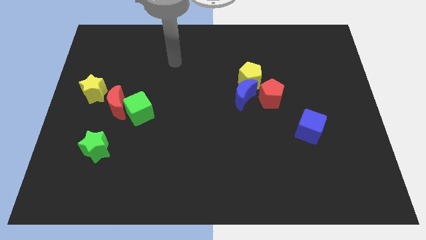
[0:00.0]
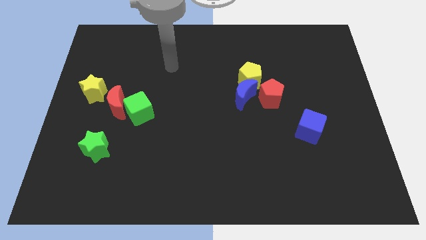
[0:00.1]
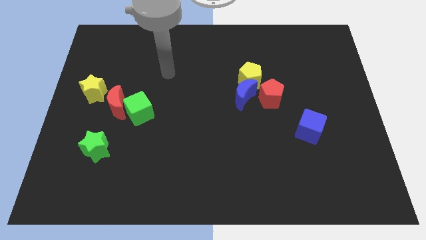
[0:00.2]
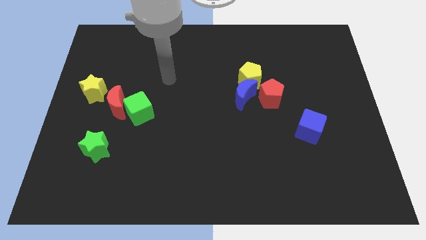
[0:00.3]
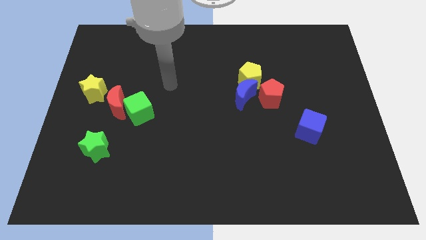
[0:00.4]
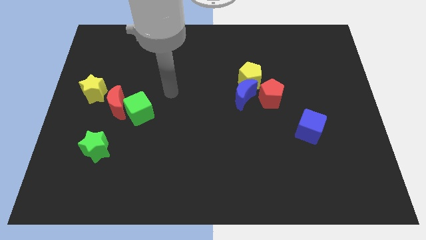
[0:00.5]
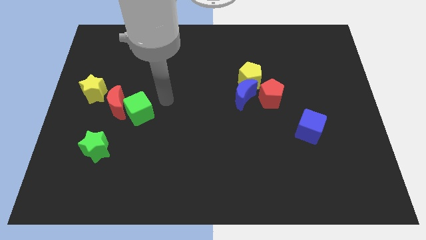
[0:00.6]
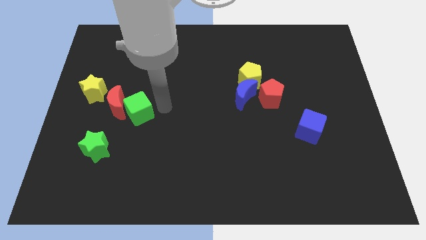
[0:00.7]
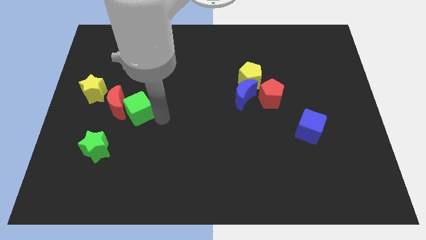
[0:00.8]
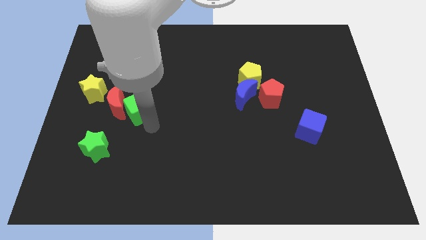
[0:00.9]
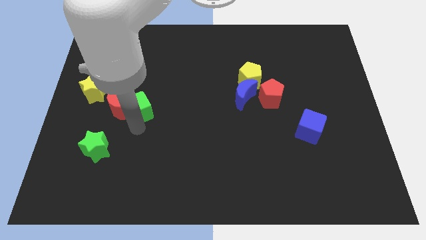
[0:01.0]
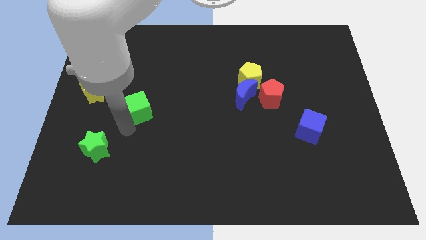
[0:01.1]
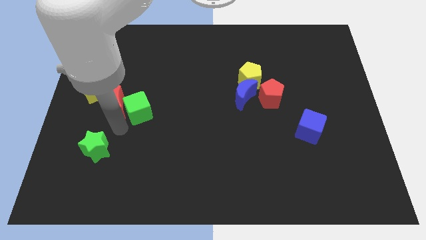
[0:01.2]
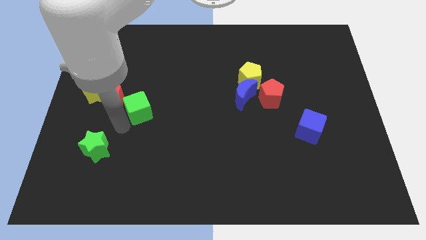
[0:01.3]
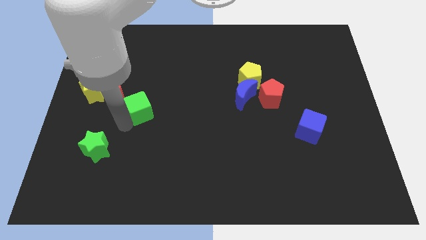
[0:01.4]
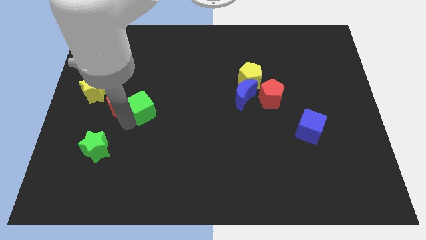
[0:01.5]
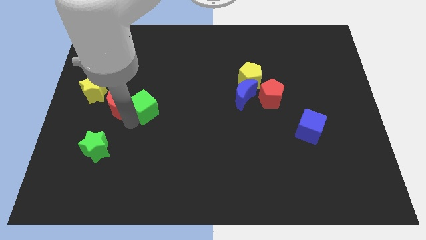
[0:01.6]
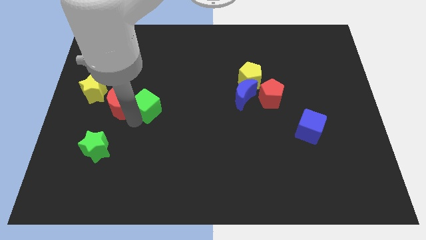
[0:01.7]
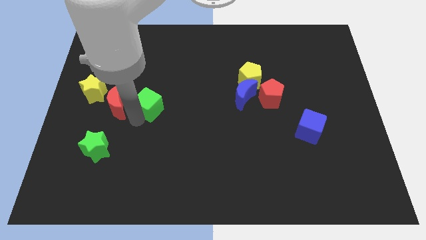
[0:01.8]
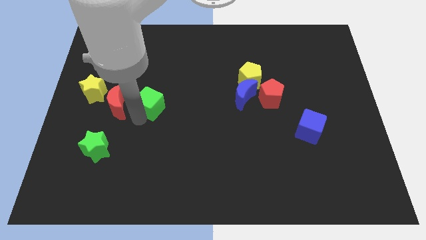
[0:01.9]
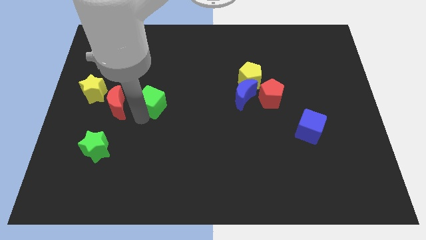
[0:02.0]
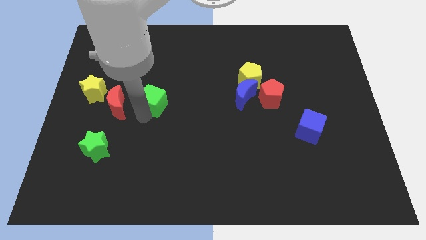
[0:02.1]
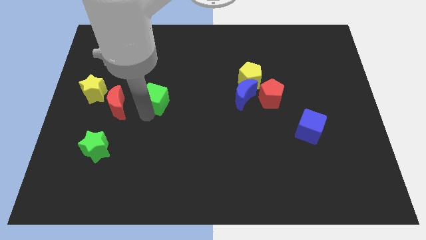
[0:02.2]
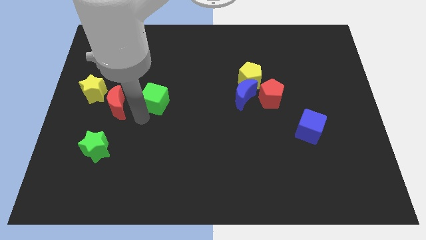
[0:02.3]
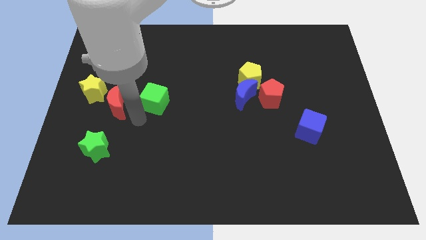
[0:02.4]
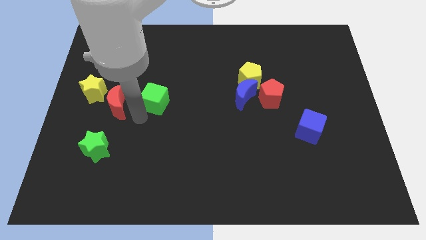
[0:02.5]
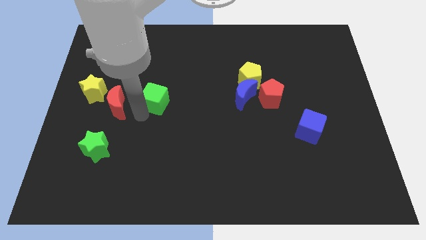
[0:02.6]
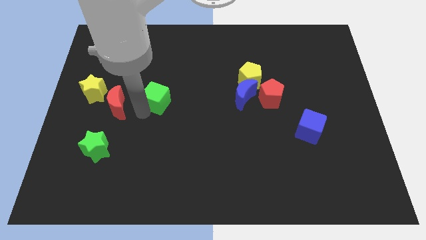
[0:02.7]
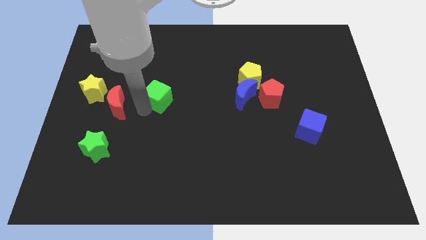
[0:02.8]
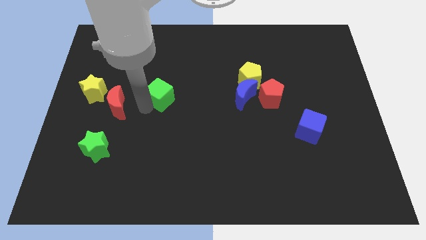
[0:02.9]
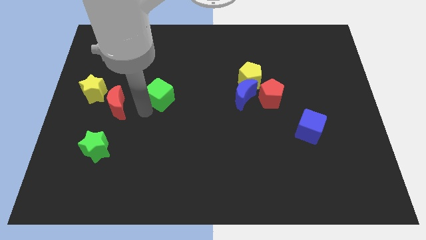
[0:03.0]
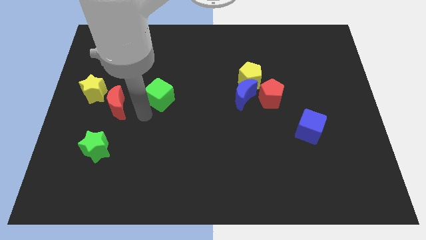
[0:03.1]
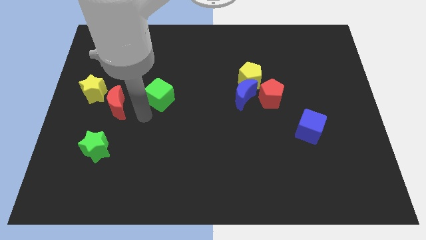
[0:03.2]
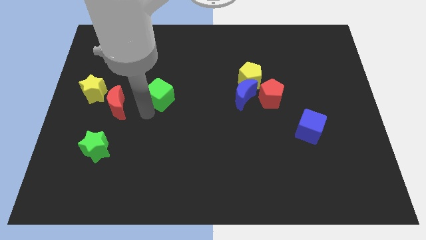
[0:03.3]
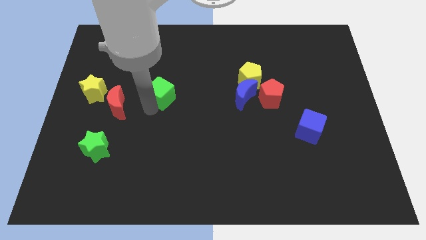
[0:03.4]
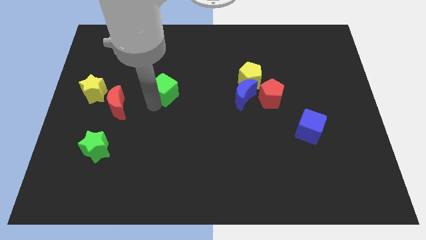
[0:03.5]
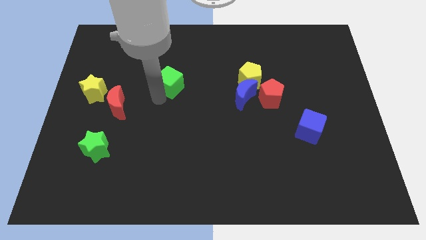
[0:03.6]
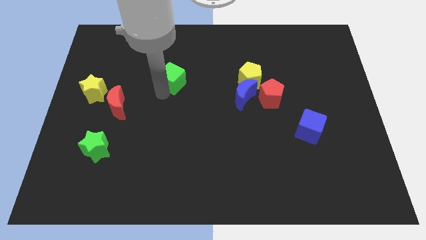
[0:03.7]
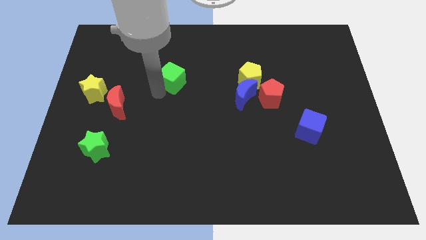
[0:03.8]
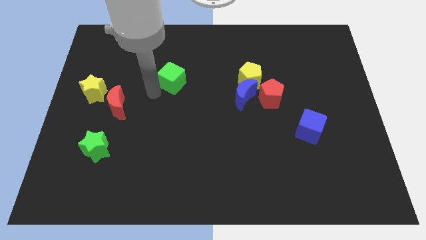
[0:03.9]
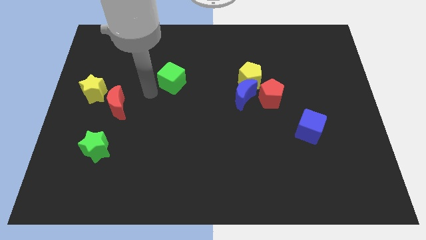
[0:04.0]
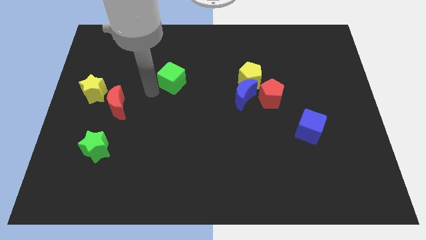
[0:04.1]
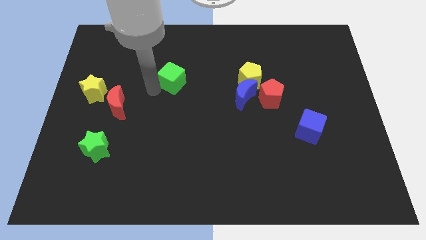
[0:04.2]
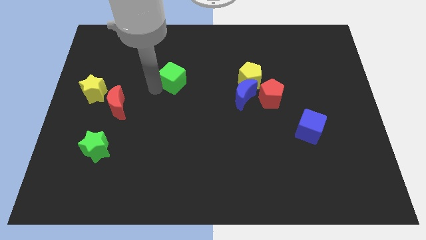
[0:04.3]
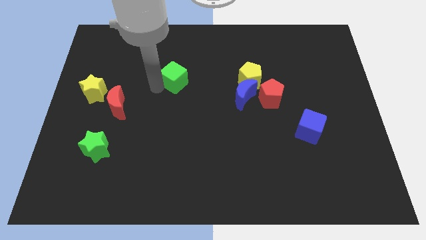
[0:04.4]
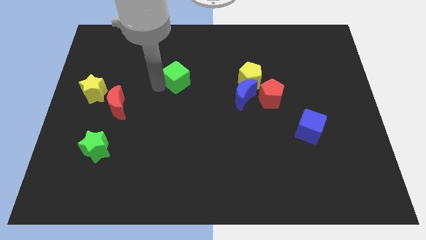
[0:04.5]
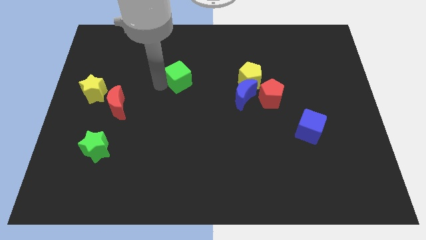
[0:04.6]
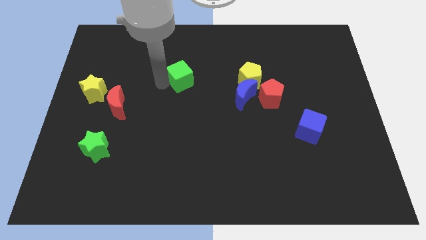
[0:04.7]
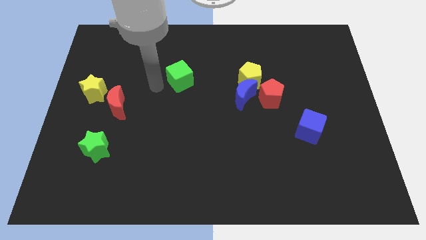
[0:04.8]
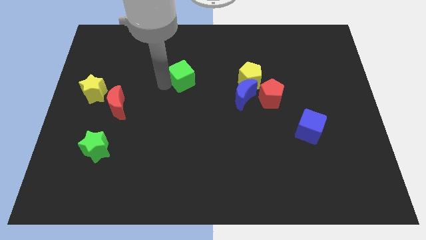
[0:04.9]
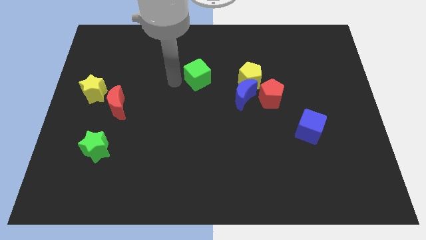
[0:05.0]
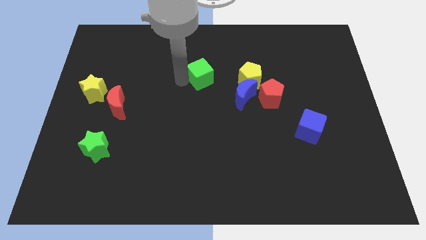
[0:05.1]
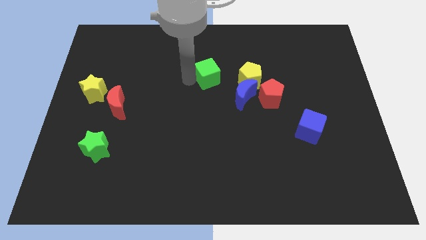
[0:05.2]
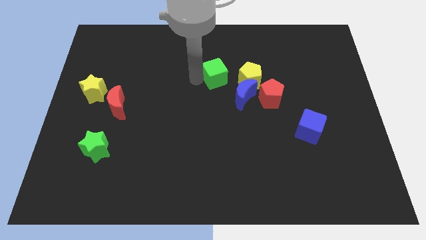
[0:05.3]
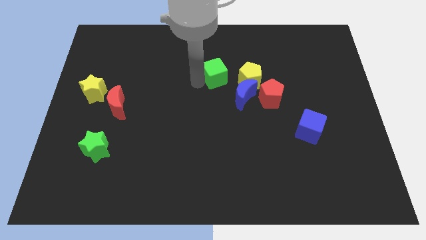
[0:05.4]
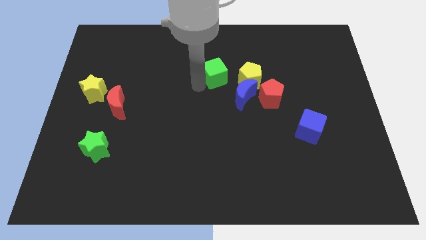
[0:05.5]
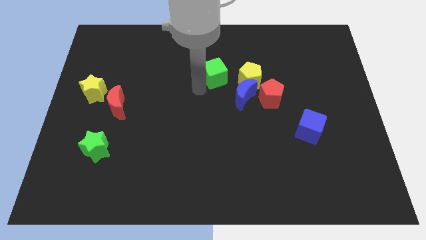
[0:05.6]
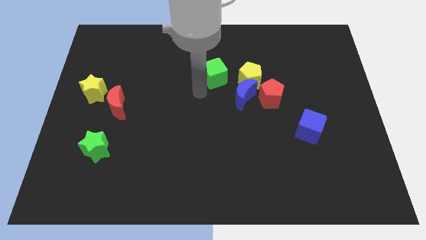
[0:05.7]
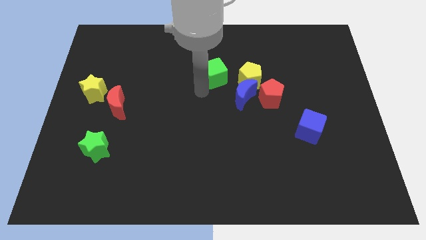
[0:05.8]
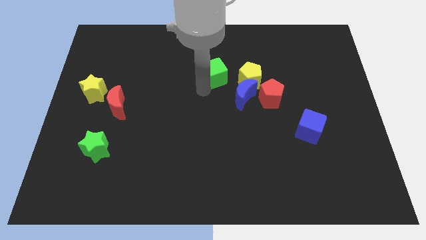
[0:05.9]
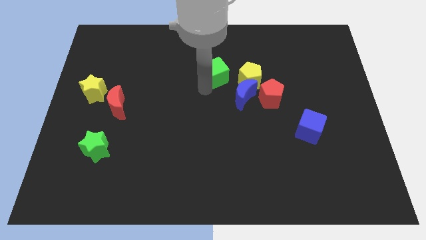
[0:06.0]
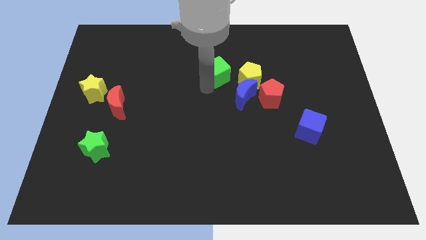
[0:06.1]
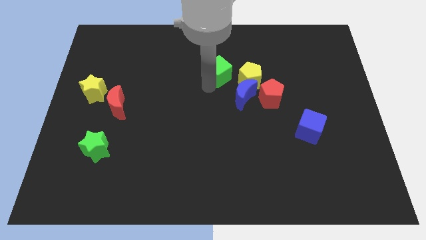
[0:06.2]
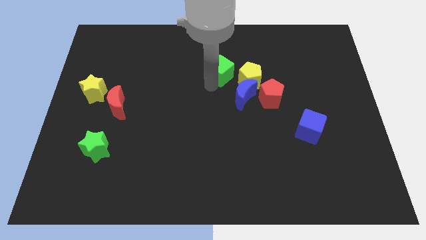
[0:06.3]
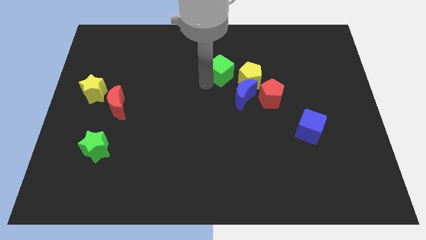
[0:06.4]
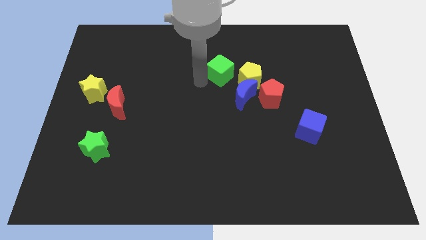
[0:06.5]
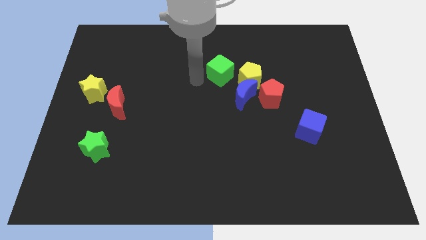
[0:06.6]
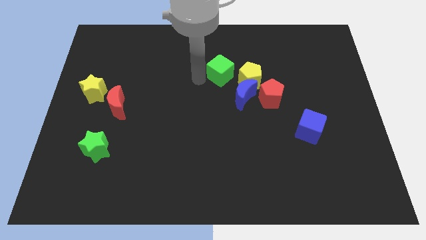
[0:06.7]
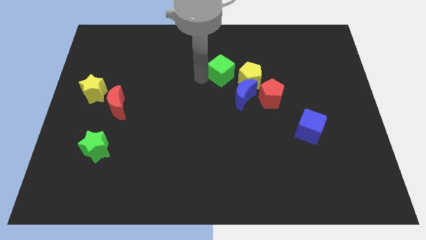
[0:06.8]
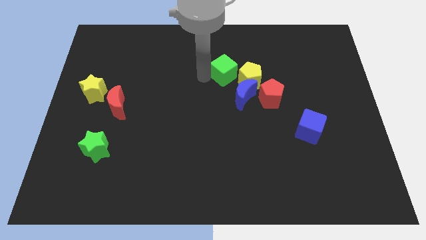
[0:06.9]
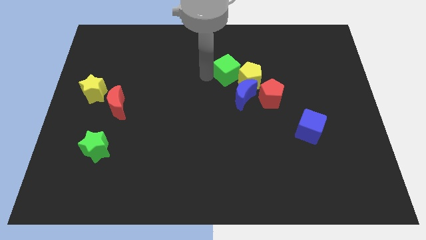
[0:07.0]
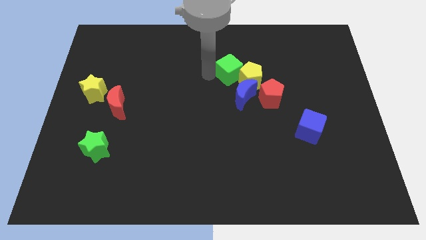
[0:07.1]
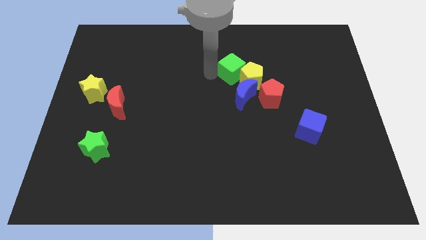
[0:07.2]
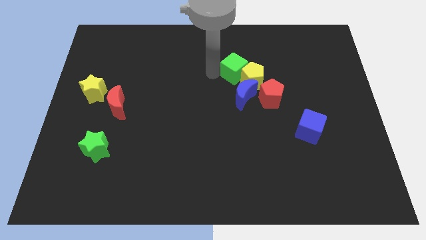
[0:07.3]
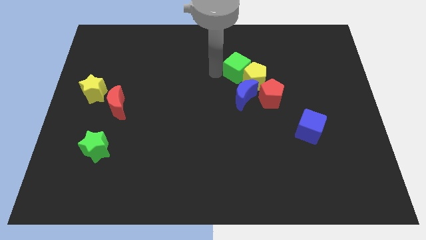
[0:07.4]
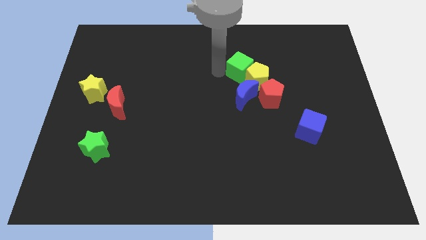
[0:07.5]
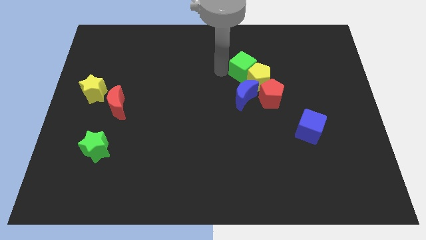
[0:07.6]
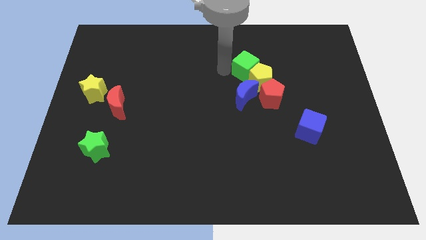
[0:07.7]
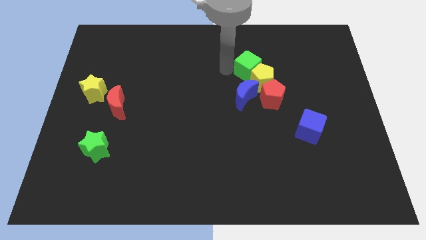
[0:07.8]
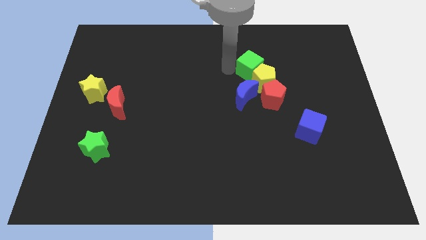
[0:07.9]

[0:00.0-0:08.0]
put the green cube to the top right side of the blue moon
